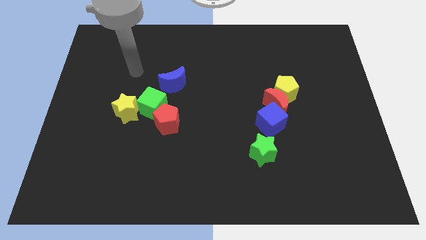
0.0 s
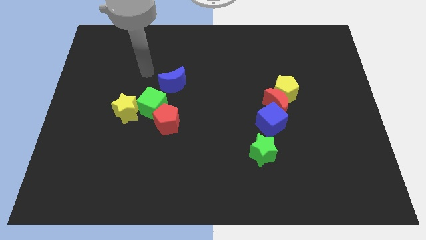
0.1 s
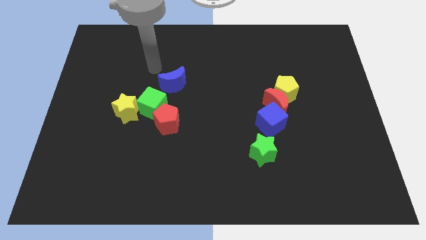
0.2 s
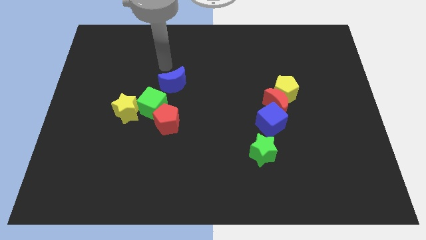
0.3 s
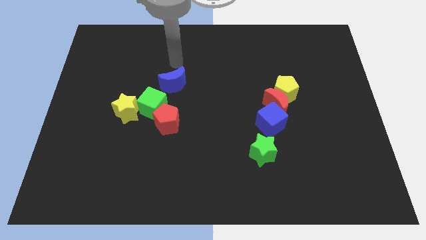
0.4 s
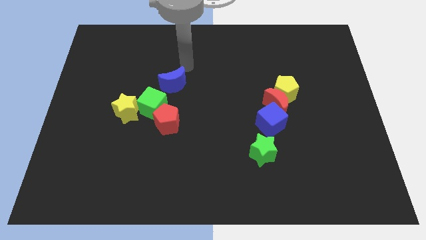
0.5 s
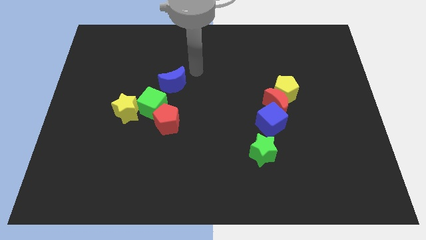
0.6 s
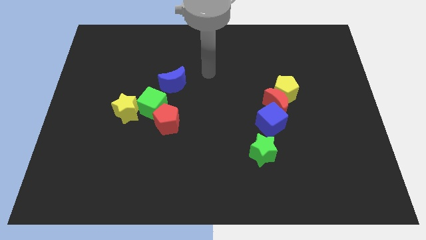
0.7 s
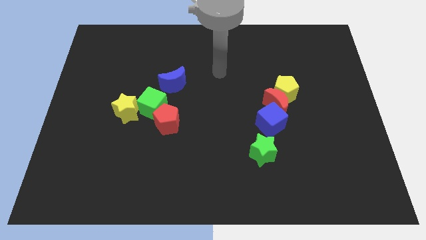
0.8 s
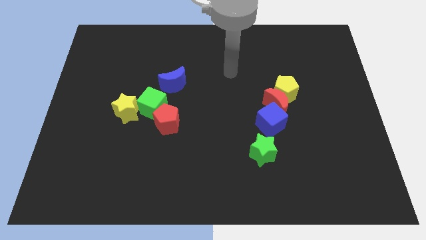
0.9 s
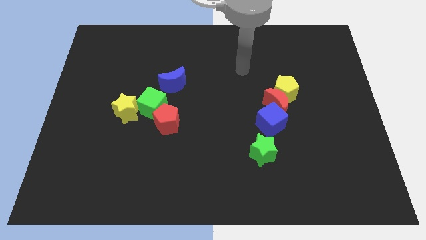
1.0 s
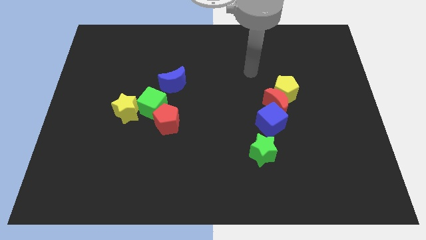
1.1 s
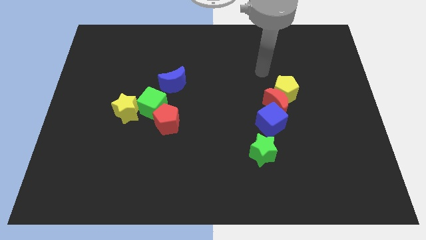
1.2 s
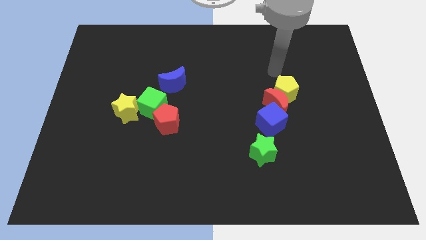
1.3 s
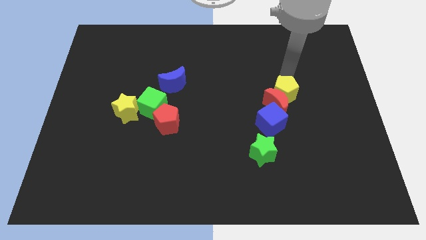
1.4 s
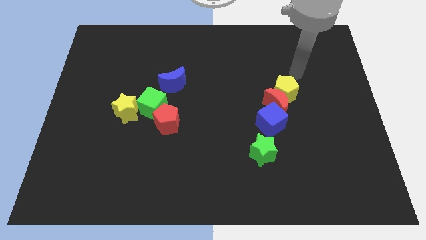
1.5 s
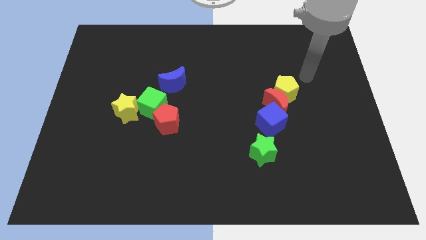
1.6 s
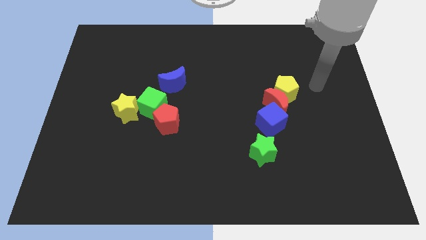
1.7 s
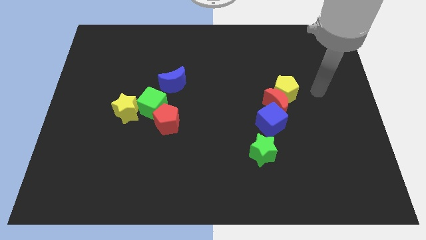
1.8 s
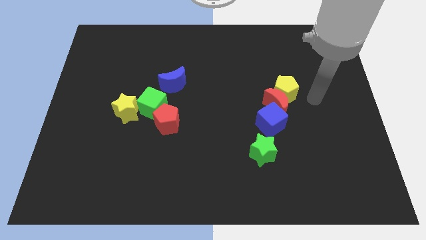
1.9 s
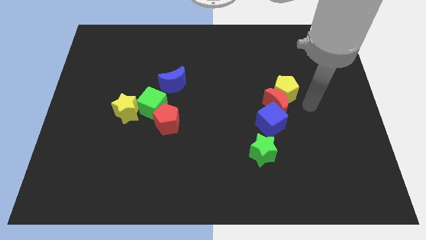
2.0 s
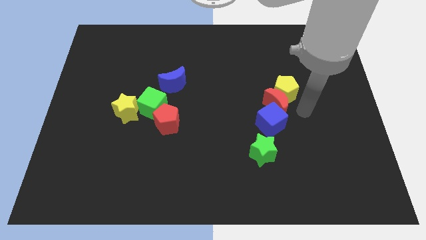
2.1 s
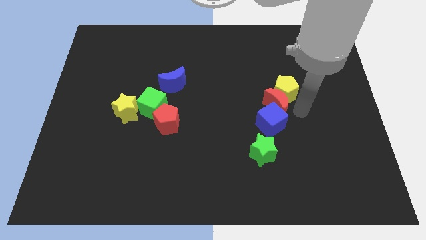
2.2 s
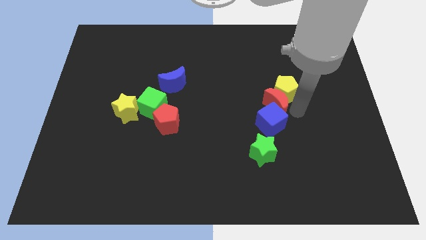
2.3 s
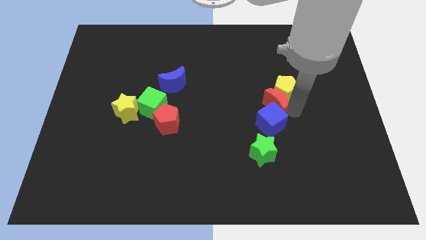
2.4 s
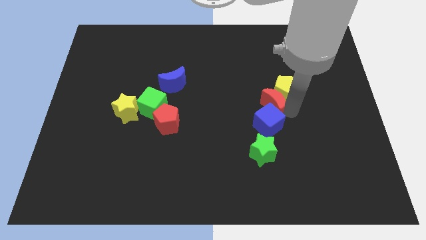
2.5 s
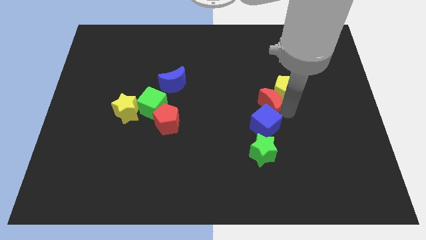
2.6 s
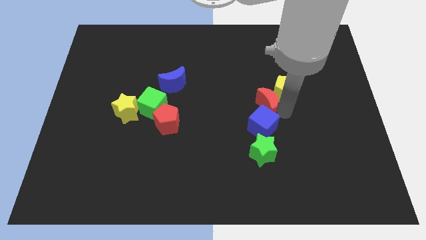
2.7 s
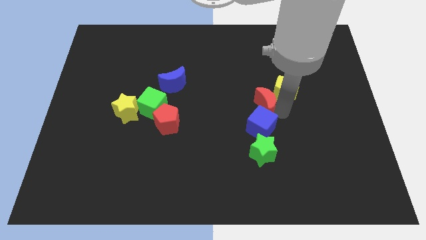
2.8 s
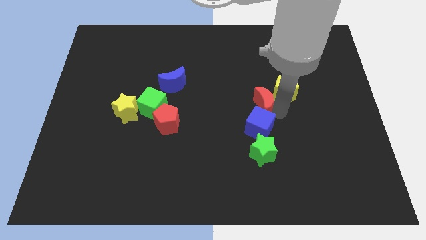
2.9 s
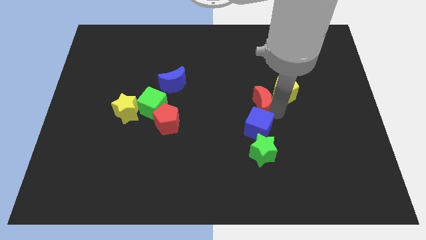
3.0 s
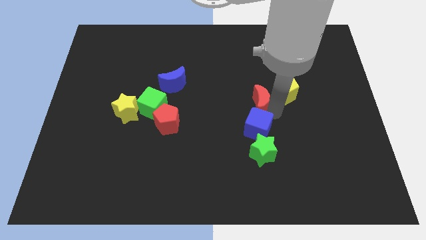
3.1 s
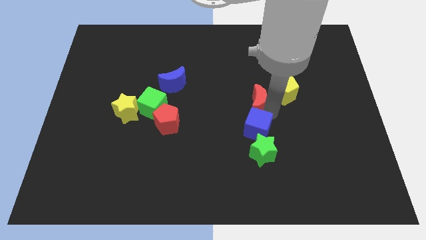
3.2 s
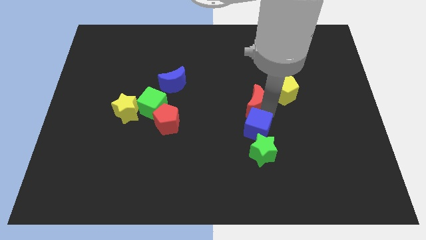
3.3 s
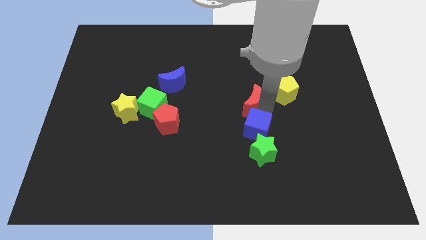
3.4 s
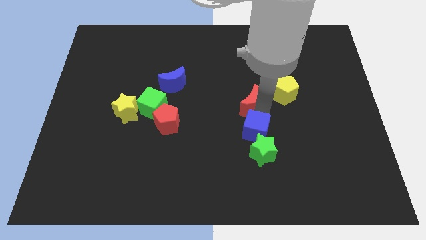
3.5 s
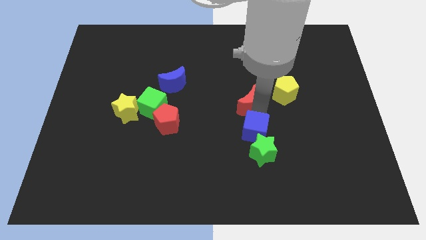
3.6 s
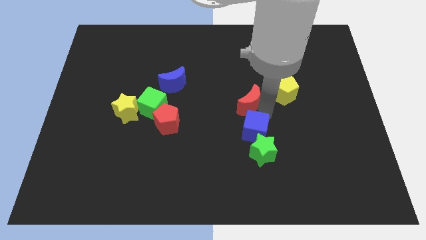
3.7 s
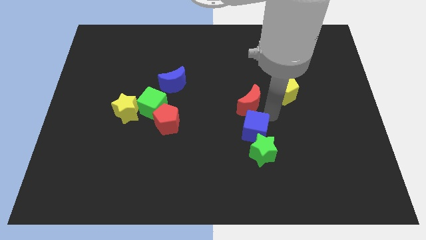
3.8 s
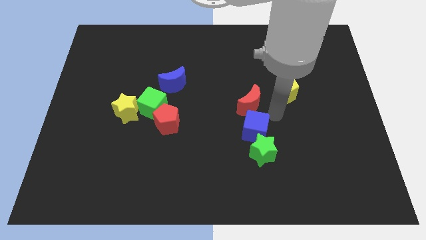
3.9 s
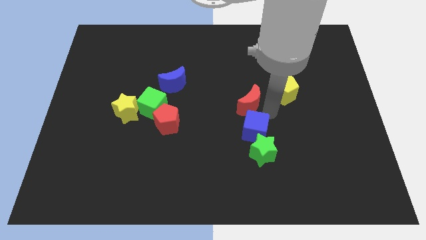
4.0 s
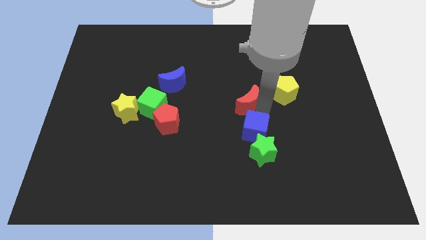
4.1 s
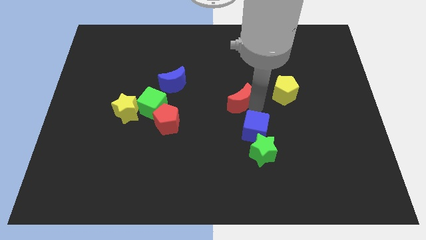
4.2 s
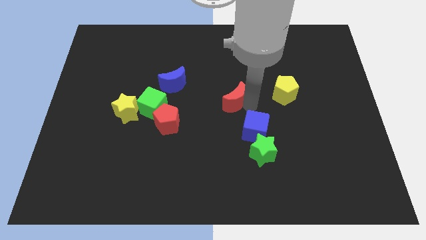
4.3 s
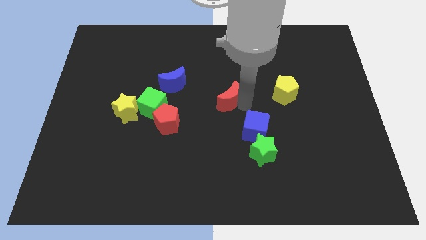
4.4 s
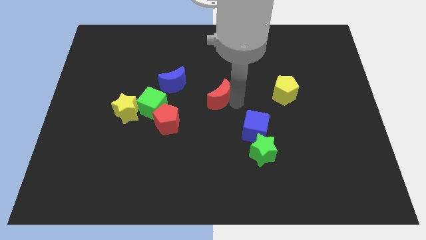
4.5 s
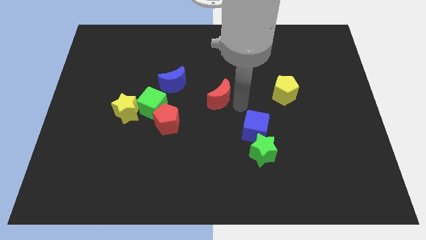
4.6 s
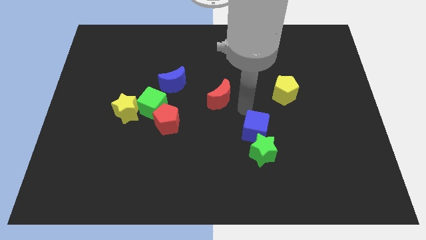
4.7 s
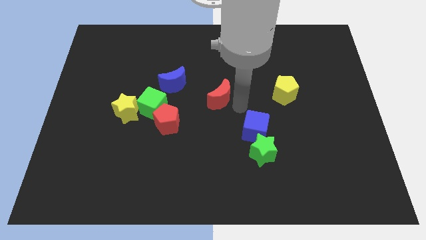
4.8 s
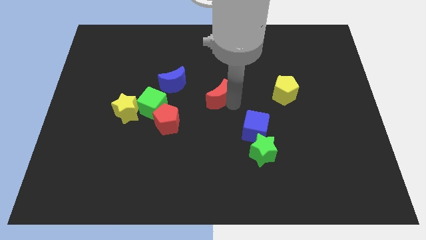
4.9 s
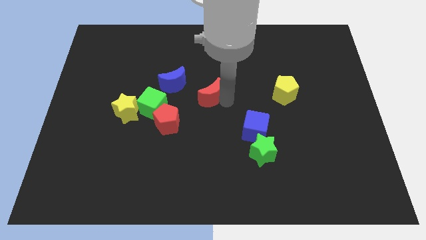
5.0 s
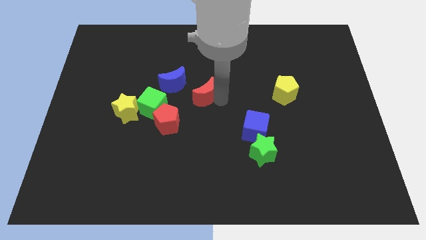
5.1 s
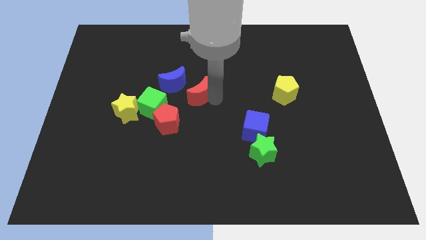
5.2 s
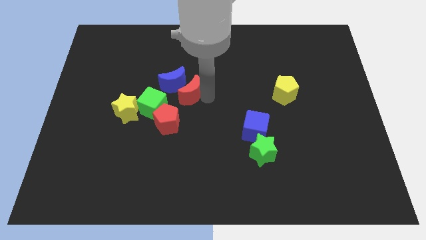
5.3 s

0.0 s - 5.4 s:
slide the red moon next to the blue moon

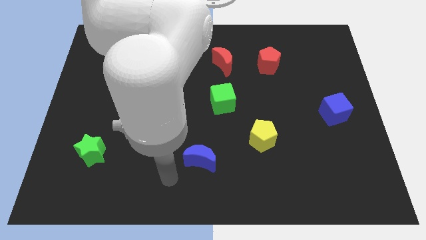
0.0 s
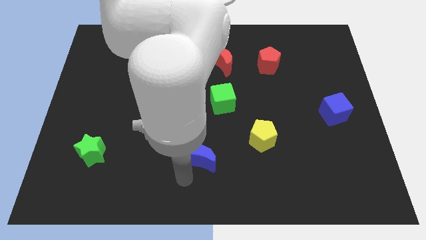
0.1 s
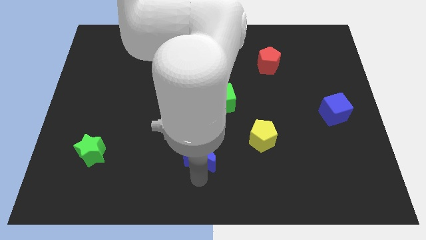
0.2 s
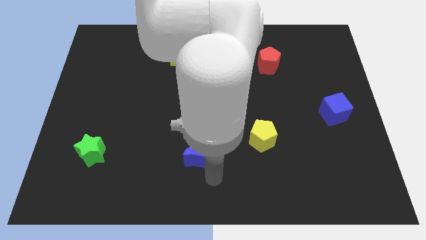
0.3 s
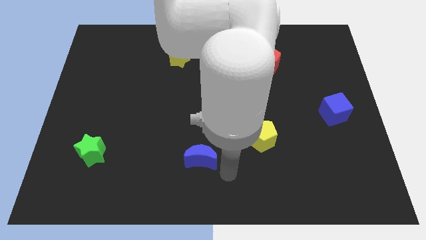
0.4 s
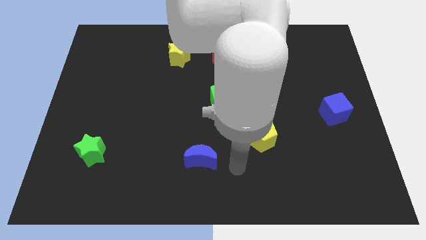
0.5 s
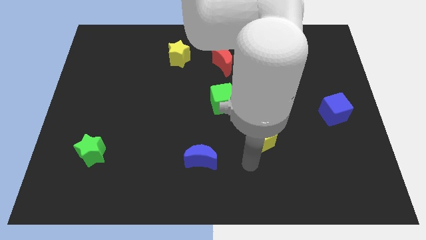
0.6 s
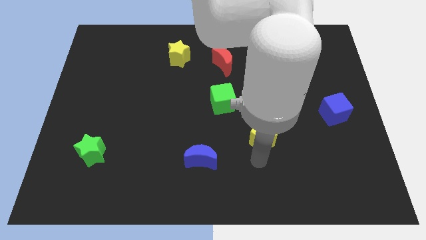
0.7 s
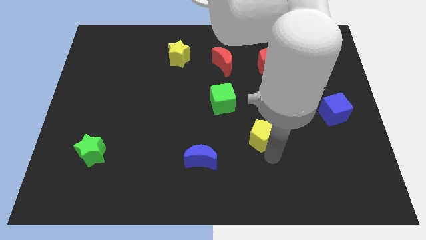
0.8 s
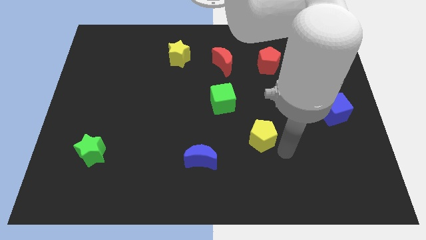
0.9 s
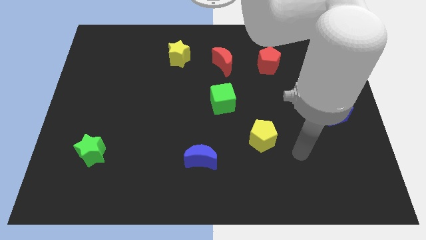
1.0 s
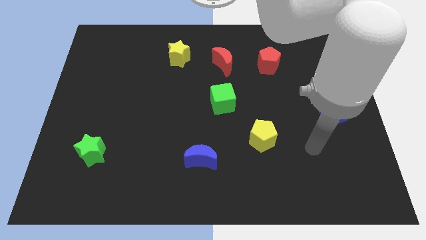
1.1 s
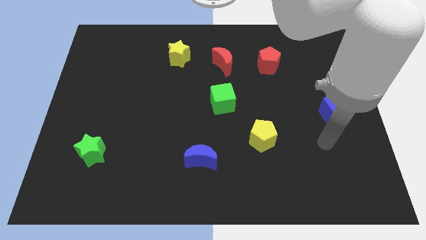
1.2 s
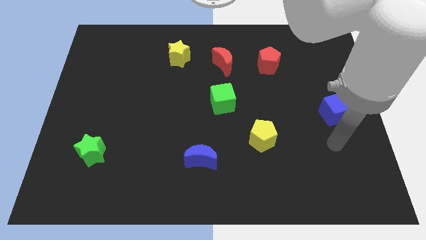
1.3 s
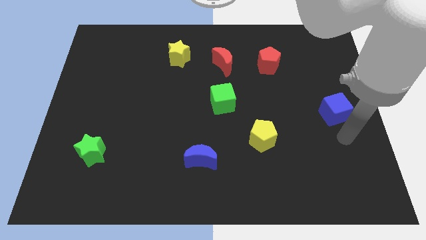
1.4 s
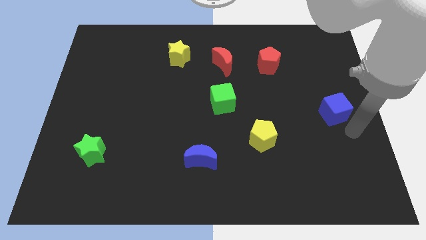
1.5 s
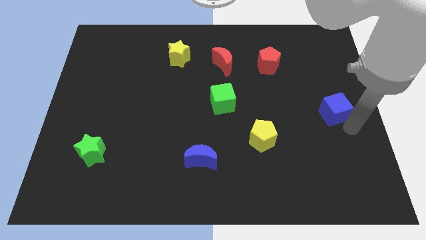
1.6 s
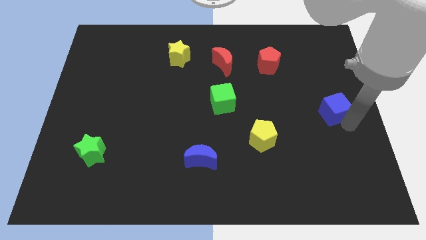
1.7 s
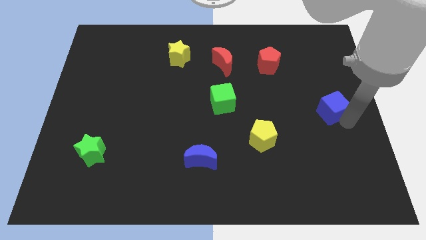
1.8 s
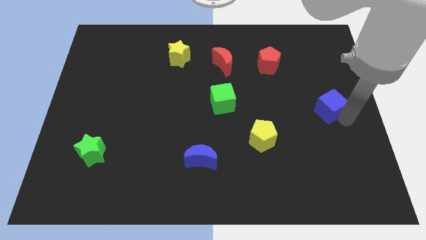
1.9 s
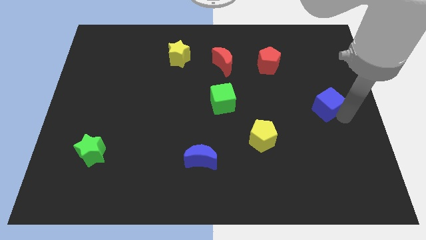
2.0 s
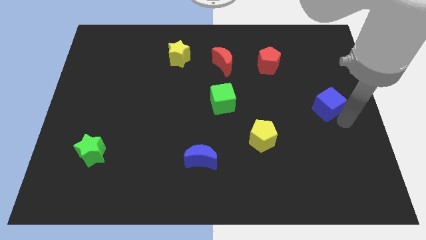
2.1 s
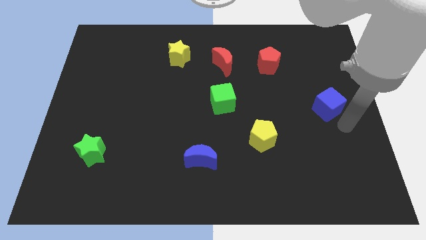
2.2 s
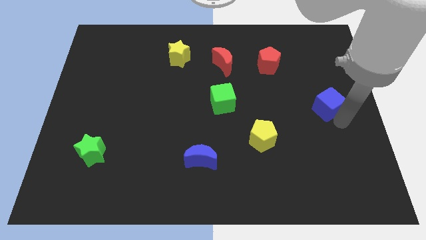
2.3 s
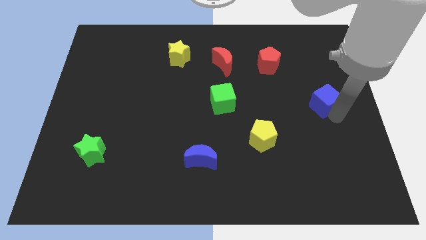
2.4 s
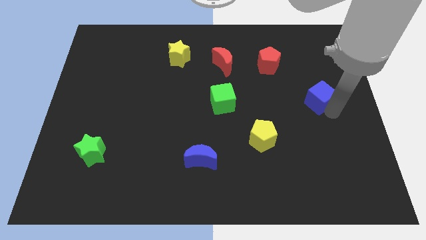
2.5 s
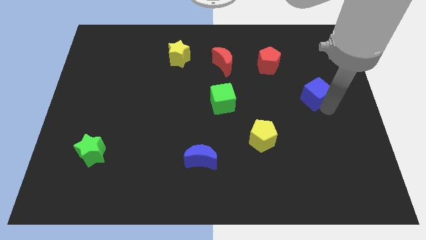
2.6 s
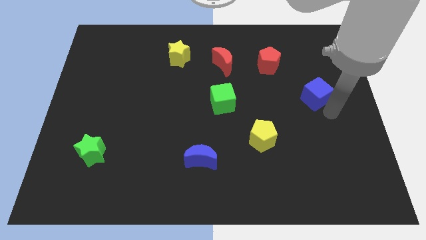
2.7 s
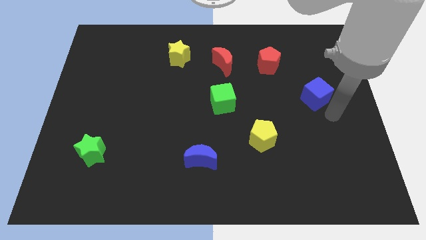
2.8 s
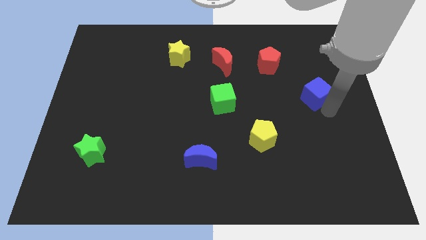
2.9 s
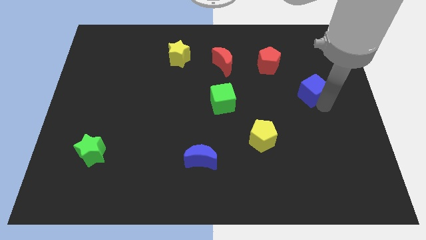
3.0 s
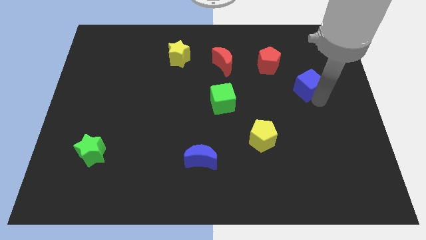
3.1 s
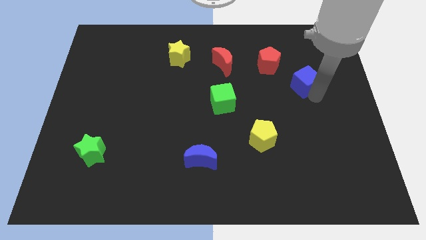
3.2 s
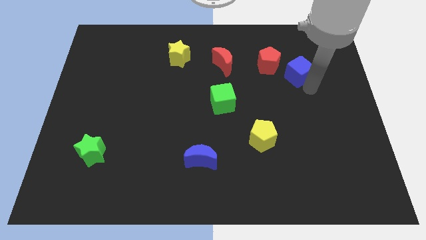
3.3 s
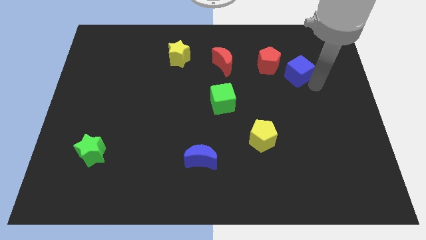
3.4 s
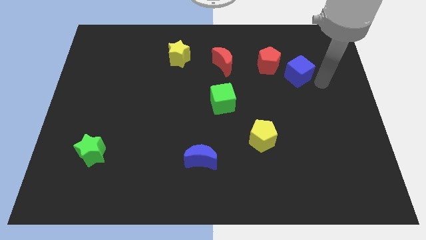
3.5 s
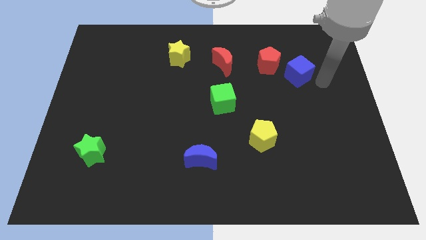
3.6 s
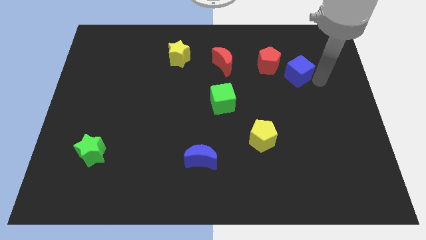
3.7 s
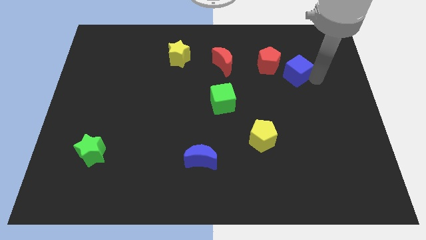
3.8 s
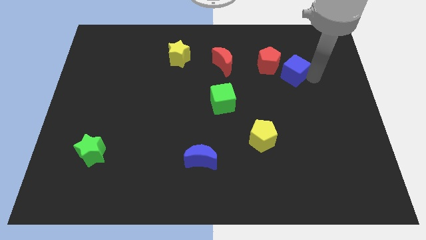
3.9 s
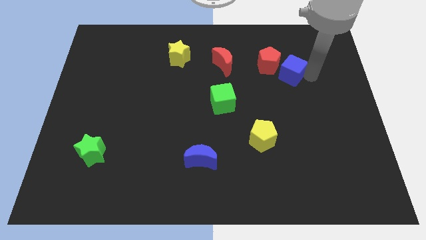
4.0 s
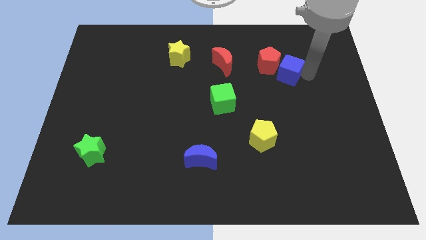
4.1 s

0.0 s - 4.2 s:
move the blue cube next to the red pentagon
